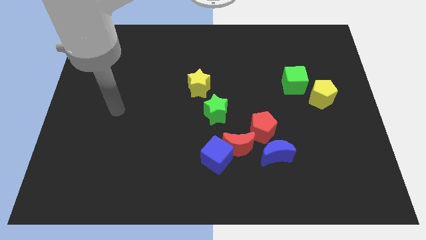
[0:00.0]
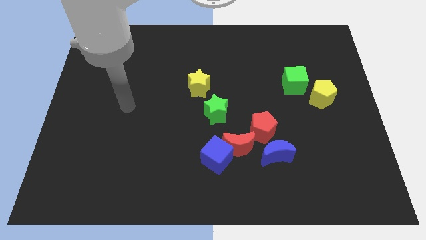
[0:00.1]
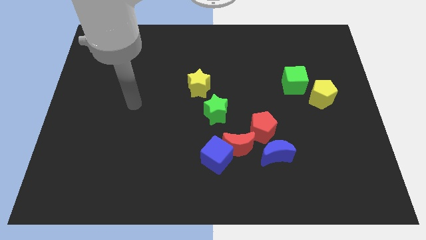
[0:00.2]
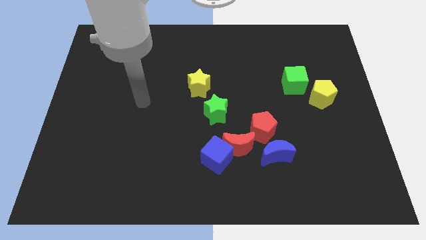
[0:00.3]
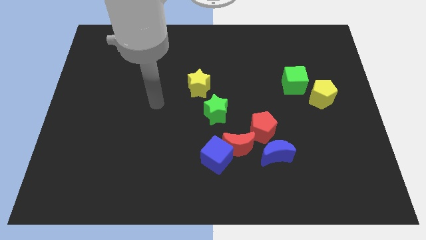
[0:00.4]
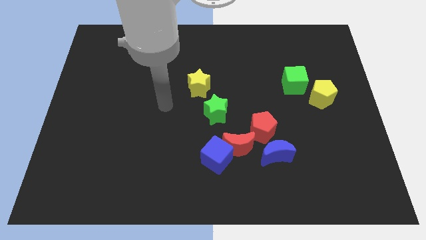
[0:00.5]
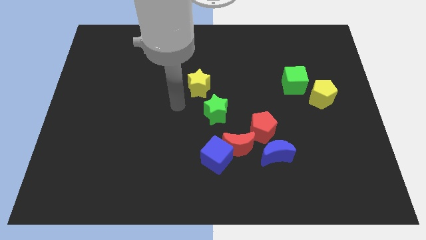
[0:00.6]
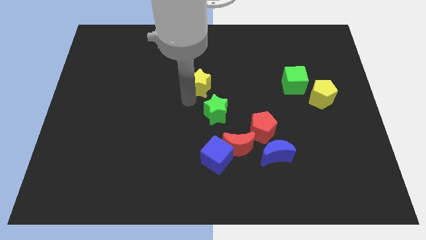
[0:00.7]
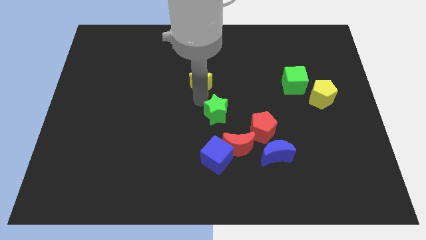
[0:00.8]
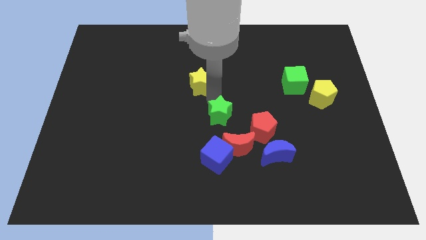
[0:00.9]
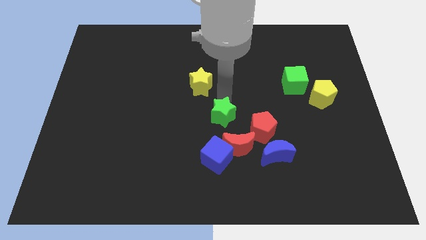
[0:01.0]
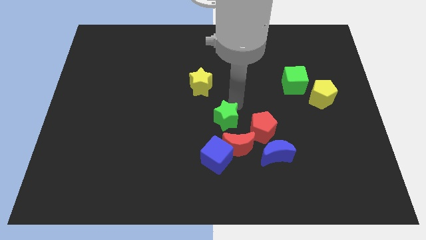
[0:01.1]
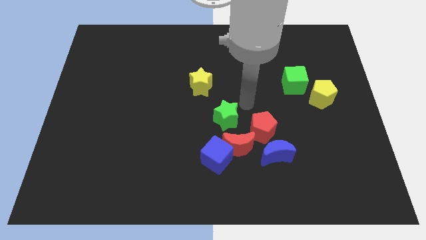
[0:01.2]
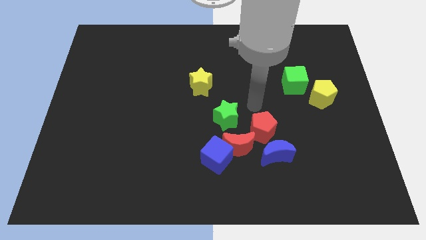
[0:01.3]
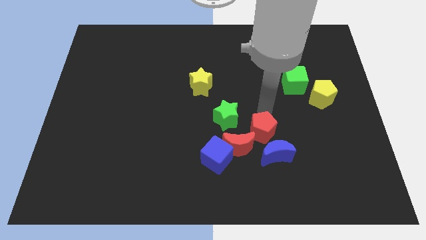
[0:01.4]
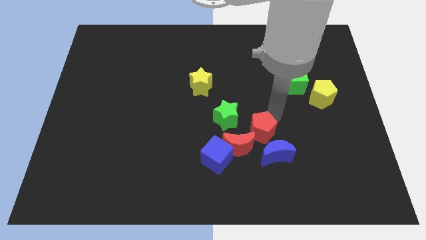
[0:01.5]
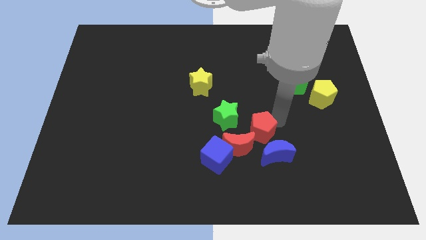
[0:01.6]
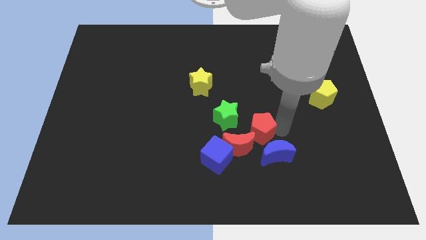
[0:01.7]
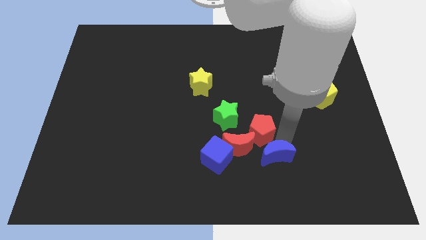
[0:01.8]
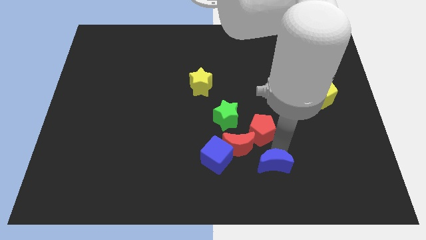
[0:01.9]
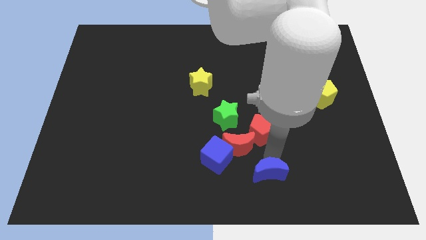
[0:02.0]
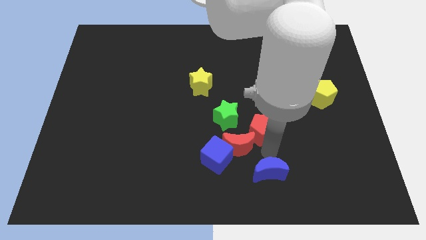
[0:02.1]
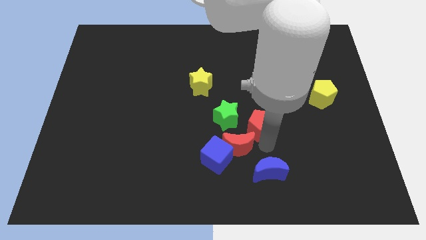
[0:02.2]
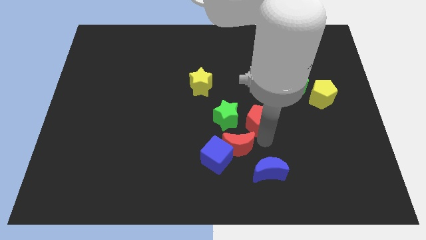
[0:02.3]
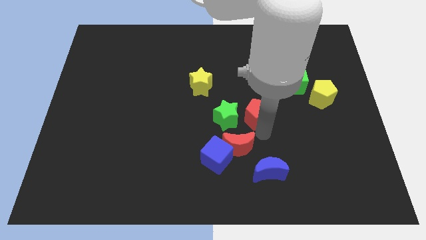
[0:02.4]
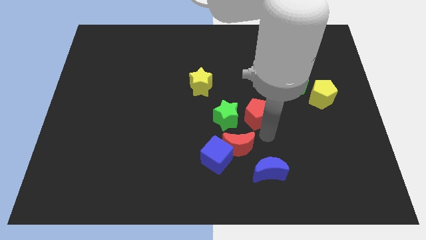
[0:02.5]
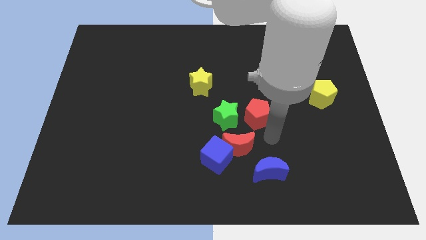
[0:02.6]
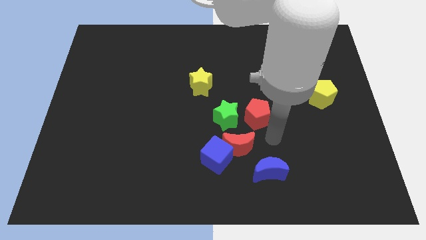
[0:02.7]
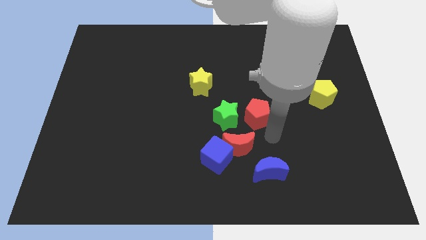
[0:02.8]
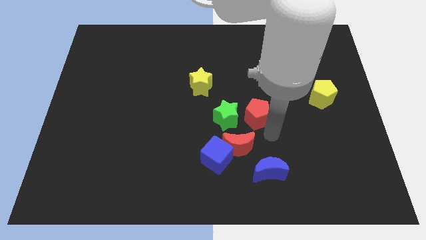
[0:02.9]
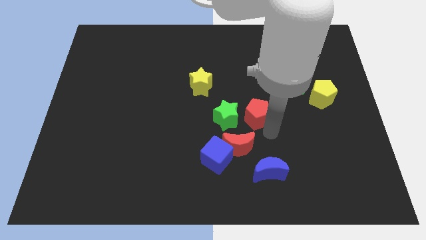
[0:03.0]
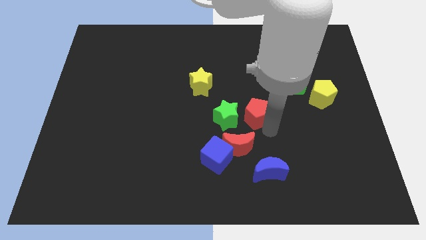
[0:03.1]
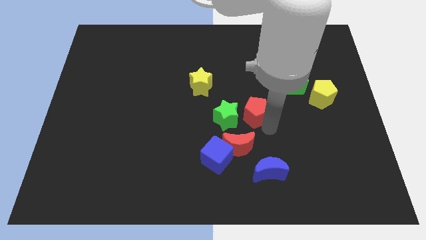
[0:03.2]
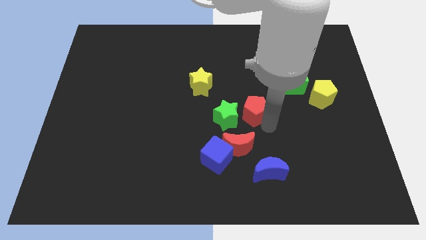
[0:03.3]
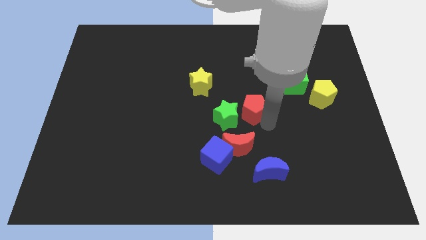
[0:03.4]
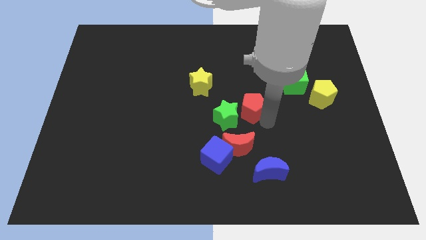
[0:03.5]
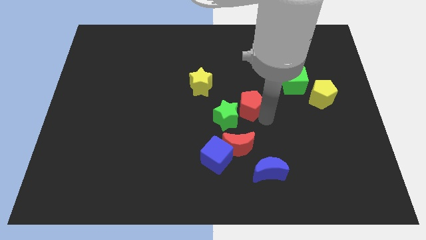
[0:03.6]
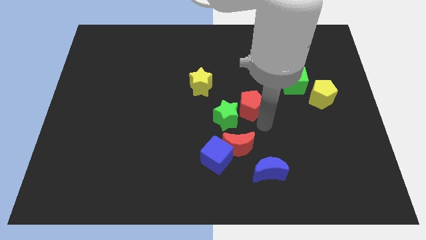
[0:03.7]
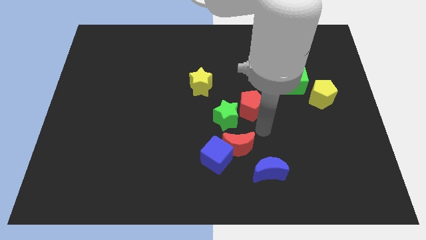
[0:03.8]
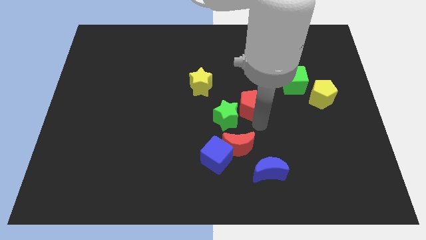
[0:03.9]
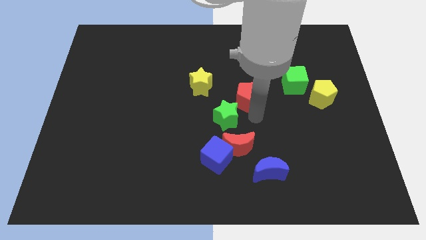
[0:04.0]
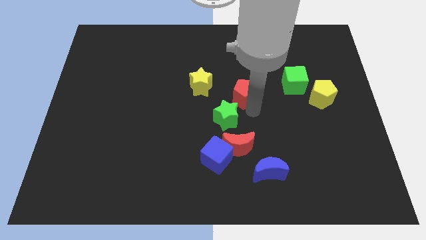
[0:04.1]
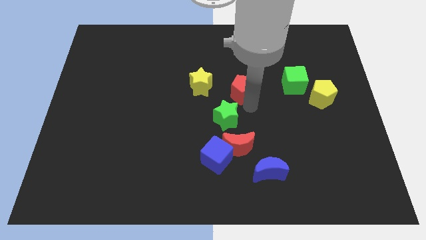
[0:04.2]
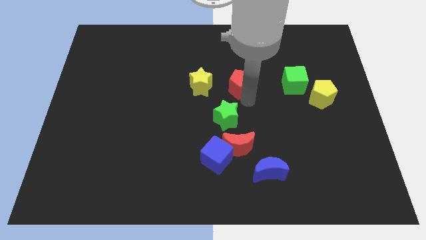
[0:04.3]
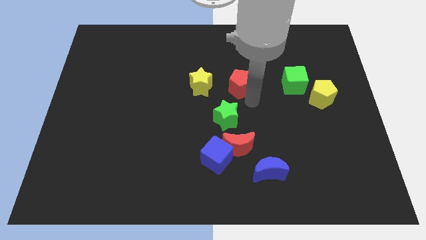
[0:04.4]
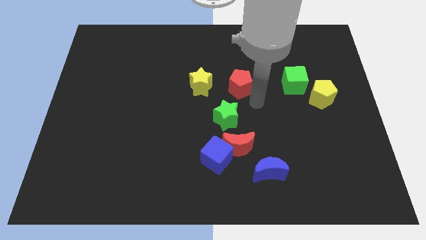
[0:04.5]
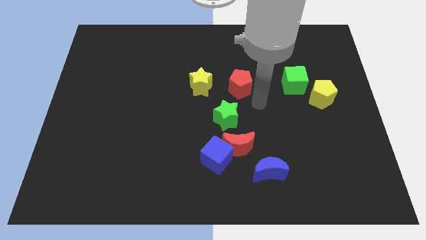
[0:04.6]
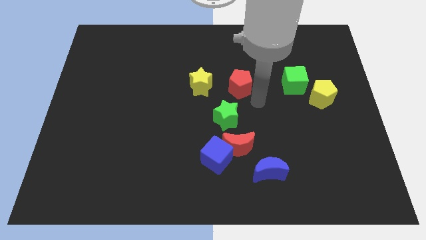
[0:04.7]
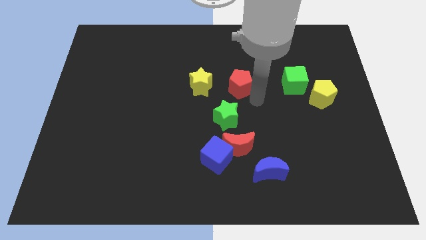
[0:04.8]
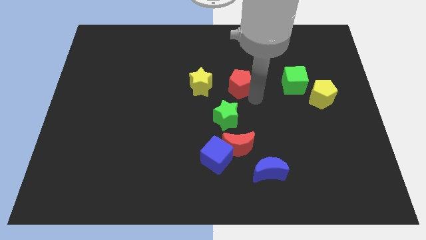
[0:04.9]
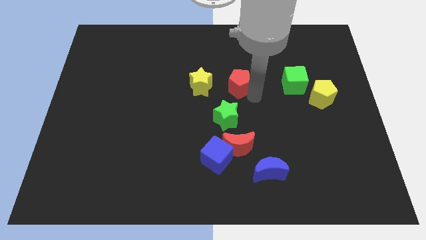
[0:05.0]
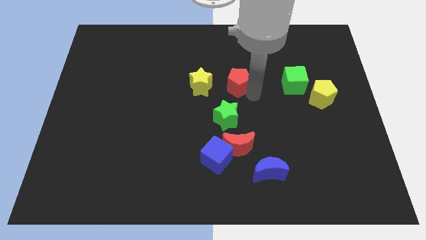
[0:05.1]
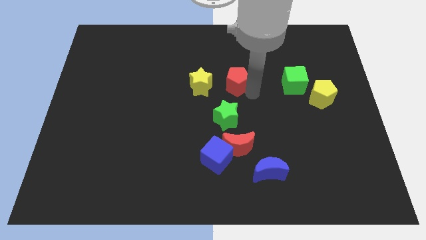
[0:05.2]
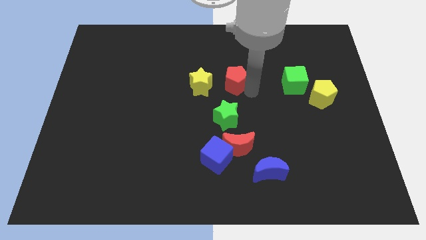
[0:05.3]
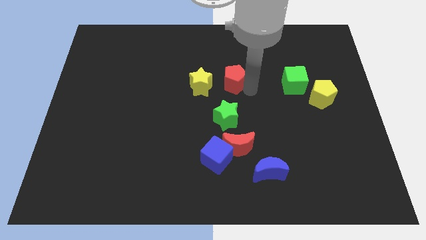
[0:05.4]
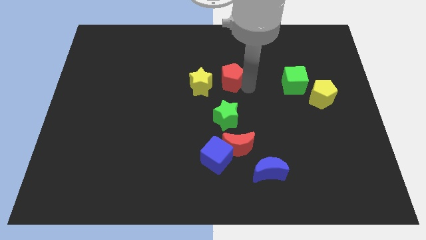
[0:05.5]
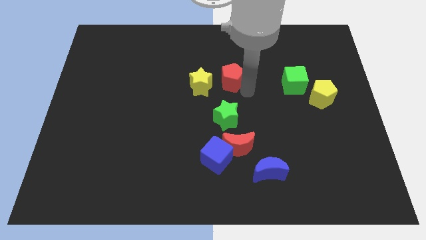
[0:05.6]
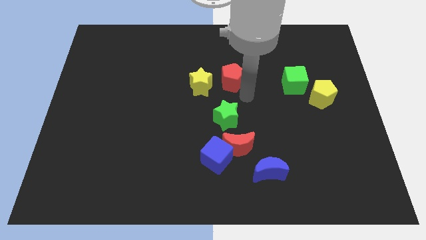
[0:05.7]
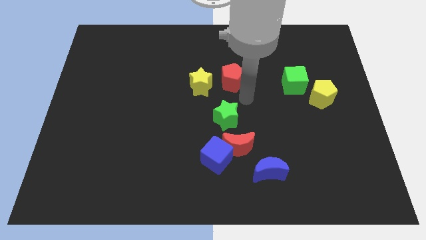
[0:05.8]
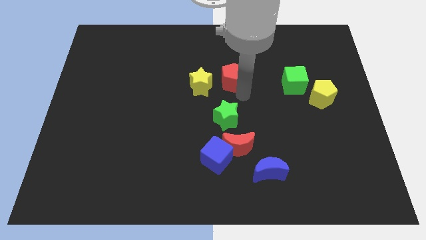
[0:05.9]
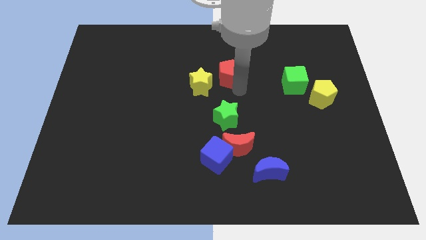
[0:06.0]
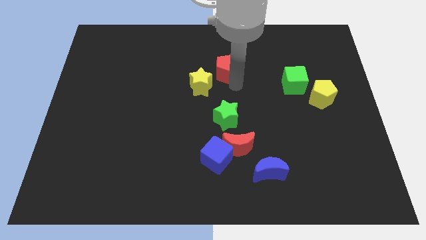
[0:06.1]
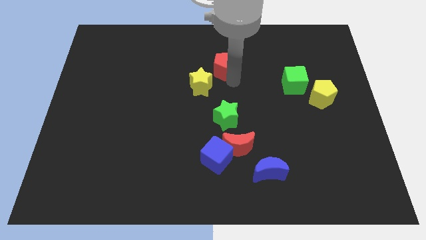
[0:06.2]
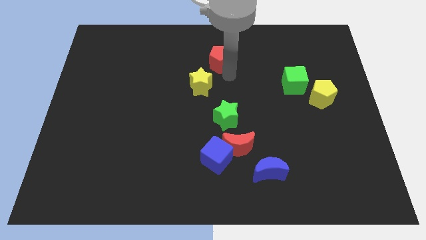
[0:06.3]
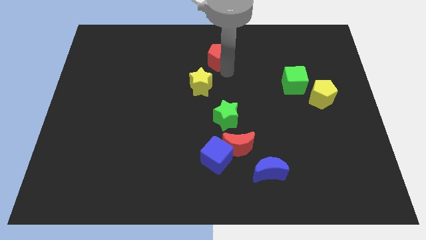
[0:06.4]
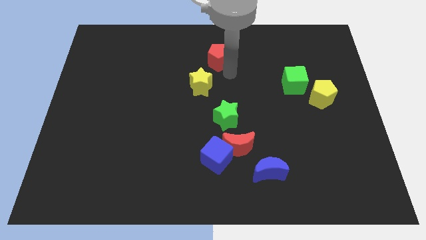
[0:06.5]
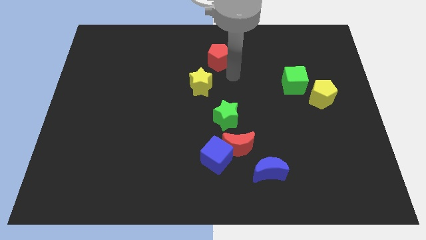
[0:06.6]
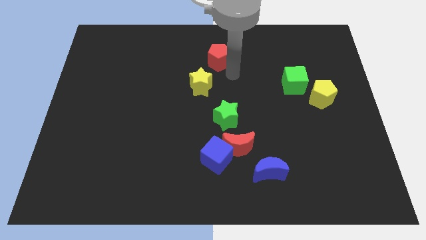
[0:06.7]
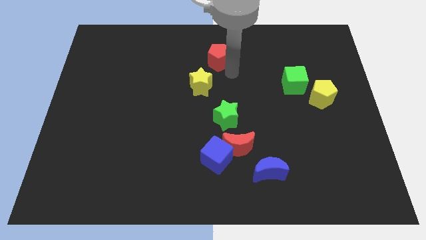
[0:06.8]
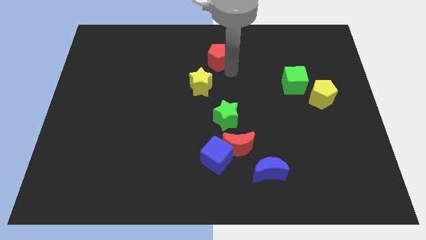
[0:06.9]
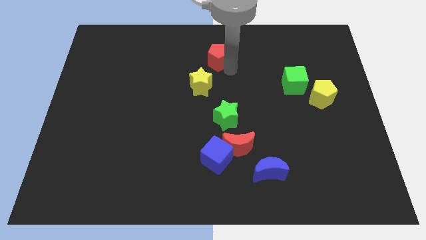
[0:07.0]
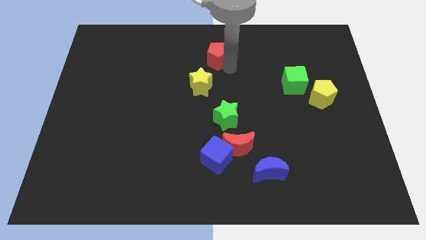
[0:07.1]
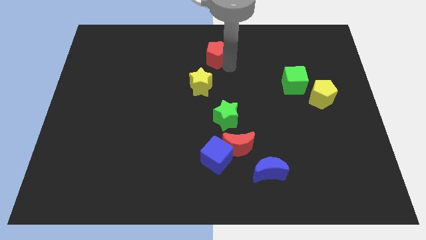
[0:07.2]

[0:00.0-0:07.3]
move the red pentagon to the top side
